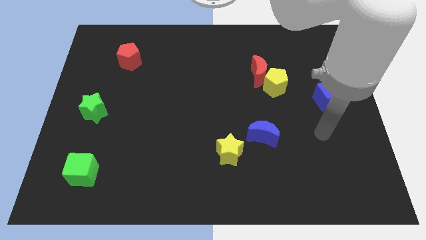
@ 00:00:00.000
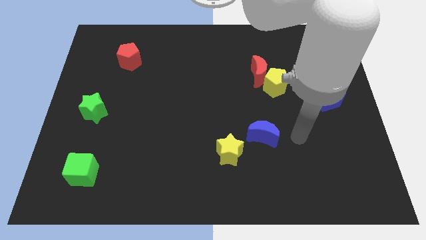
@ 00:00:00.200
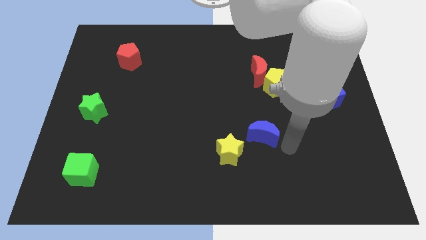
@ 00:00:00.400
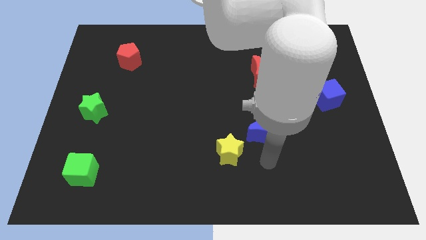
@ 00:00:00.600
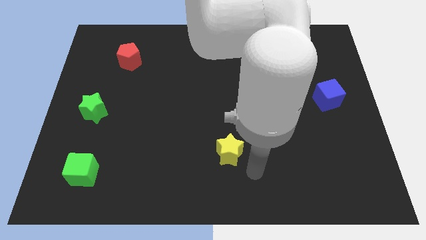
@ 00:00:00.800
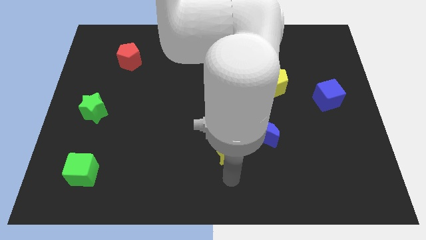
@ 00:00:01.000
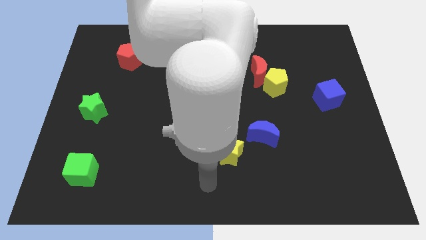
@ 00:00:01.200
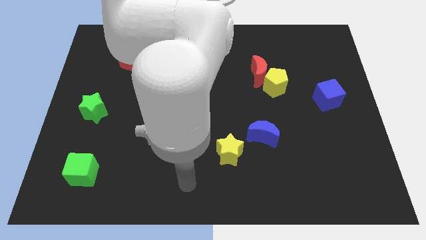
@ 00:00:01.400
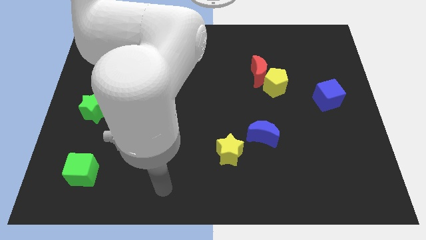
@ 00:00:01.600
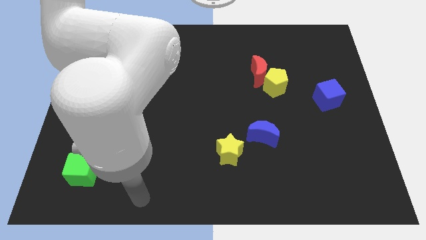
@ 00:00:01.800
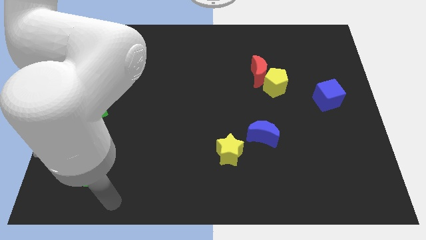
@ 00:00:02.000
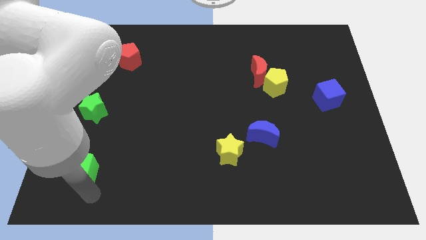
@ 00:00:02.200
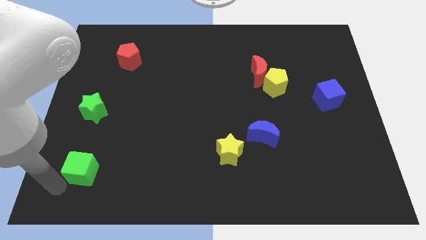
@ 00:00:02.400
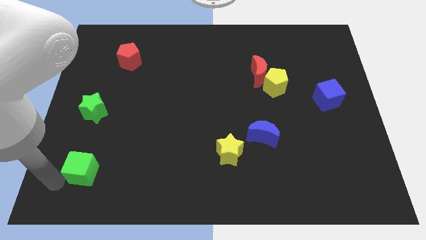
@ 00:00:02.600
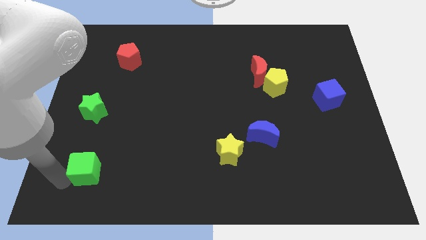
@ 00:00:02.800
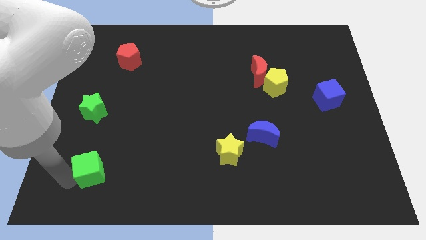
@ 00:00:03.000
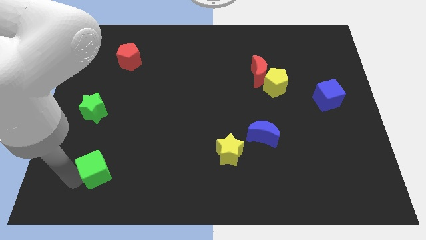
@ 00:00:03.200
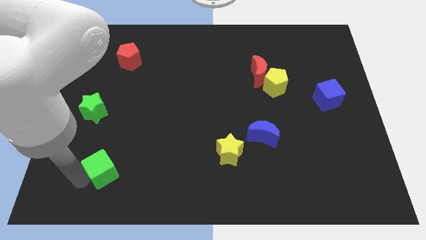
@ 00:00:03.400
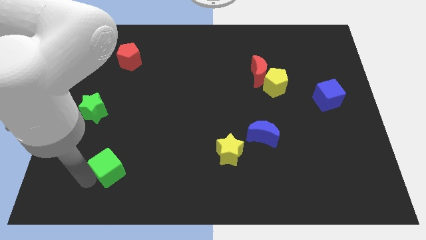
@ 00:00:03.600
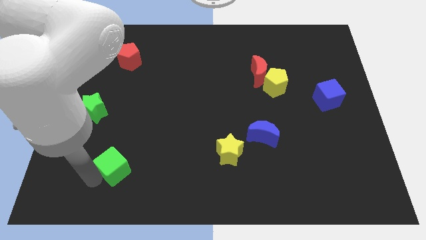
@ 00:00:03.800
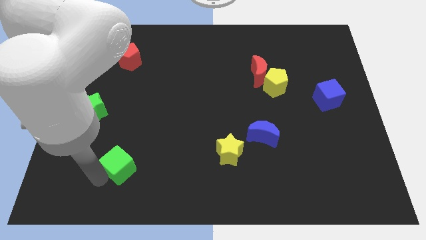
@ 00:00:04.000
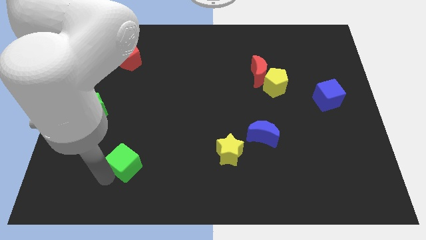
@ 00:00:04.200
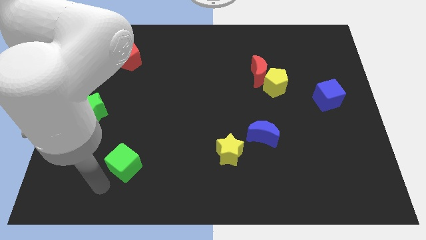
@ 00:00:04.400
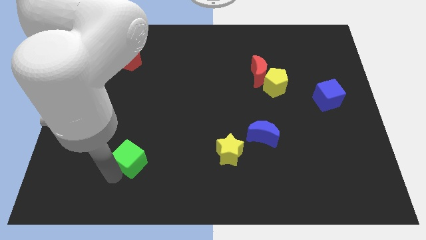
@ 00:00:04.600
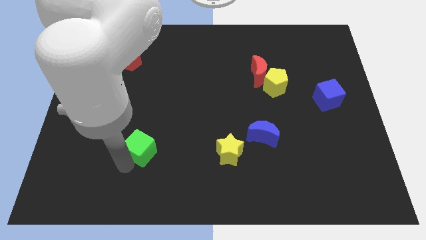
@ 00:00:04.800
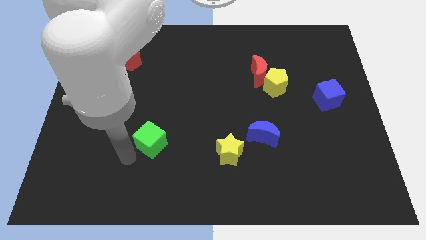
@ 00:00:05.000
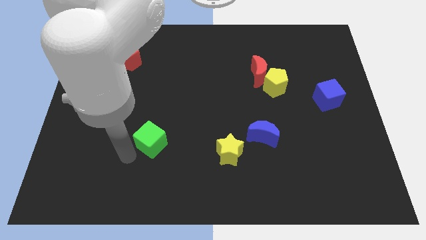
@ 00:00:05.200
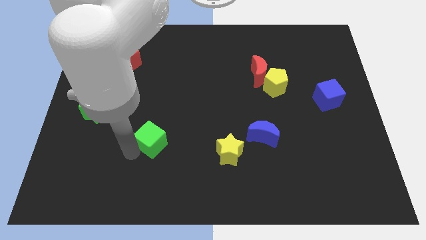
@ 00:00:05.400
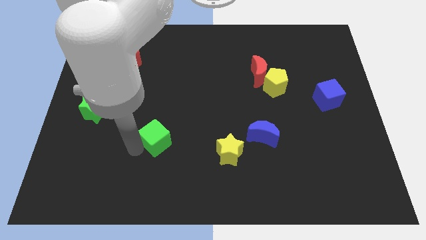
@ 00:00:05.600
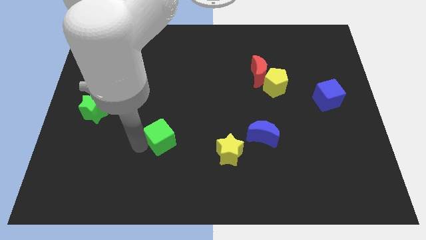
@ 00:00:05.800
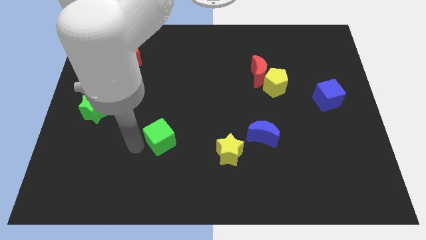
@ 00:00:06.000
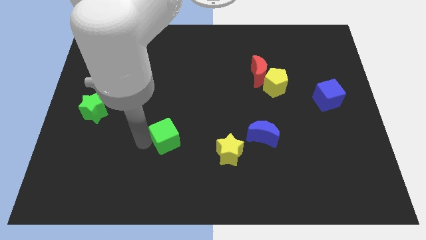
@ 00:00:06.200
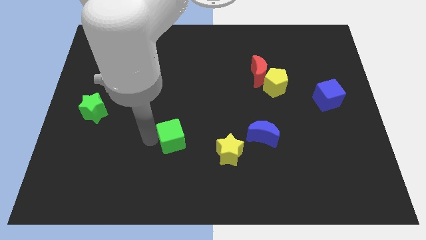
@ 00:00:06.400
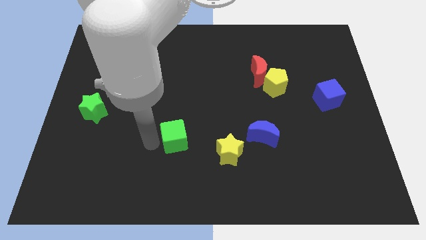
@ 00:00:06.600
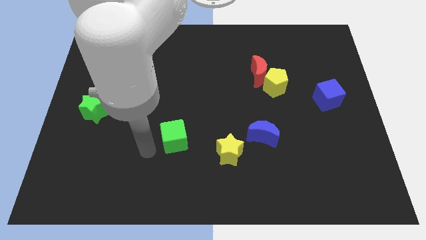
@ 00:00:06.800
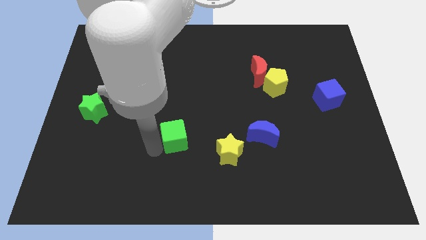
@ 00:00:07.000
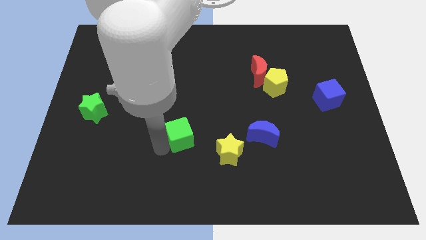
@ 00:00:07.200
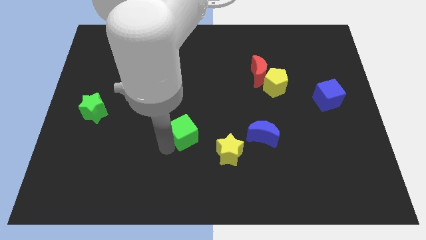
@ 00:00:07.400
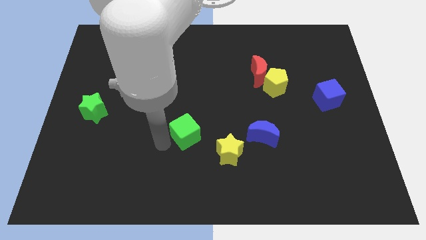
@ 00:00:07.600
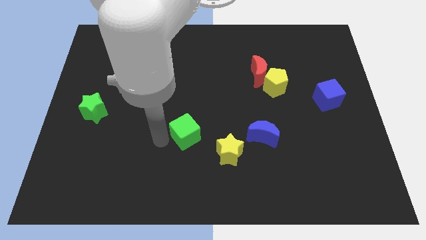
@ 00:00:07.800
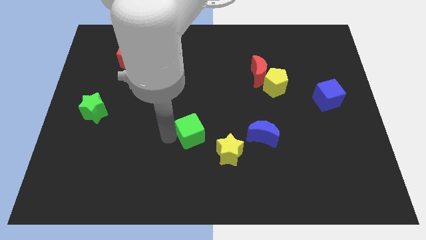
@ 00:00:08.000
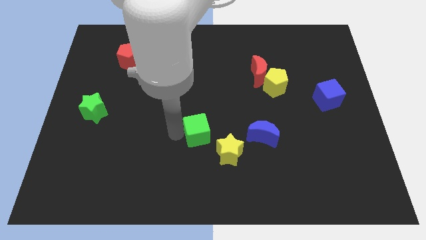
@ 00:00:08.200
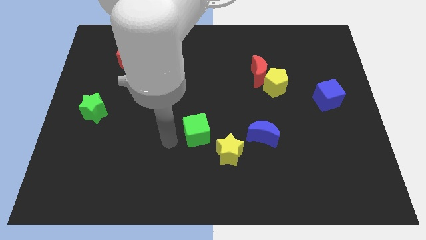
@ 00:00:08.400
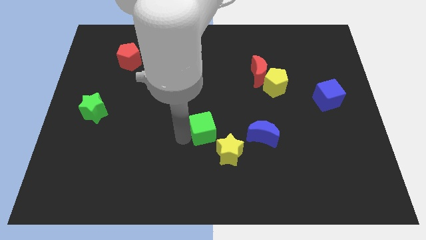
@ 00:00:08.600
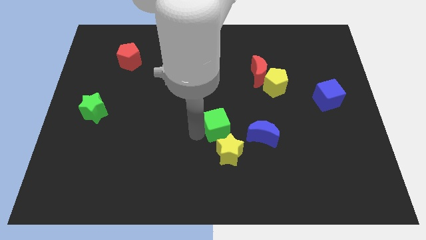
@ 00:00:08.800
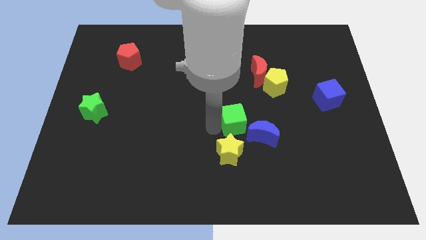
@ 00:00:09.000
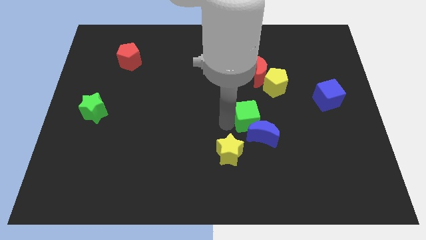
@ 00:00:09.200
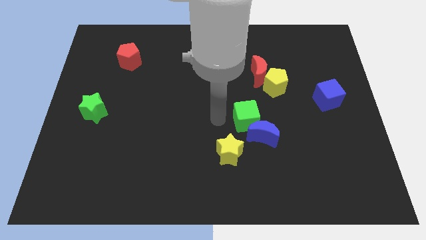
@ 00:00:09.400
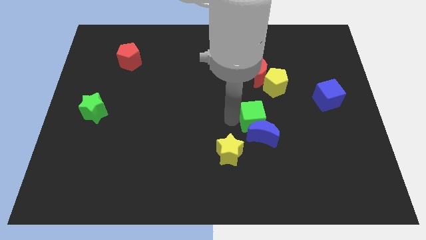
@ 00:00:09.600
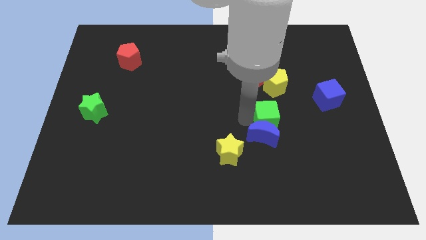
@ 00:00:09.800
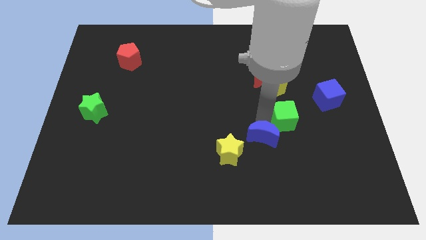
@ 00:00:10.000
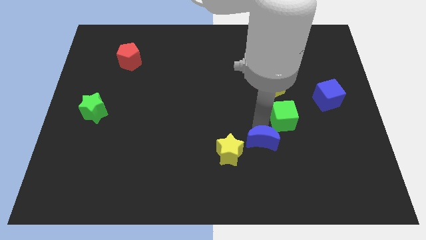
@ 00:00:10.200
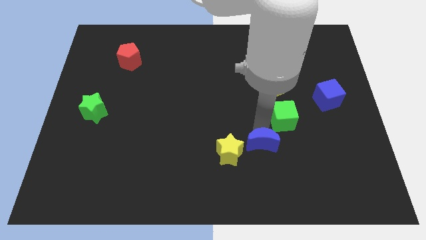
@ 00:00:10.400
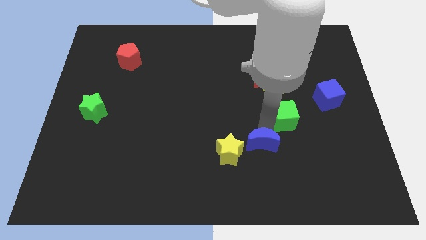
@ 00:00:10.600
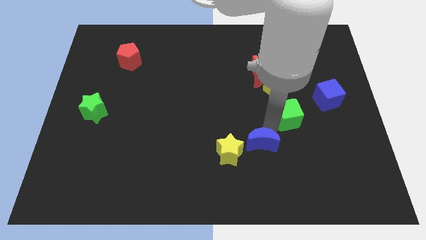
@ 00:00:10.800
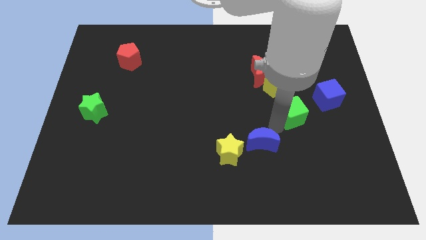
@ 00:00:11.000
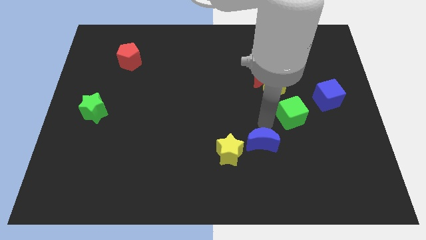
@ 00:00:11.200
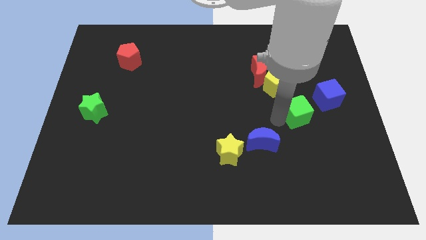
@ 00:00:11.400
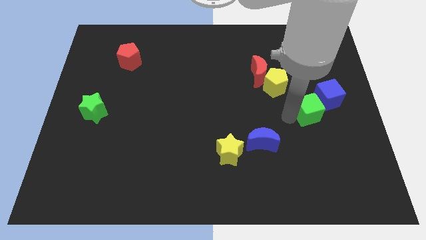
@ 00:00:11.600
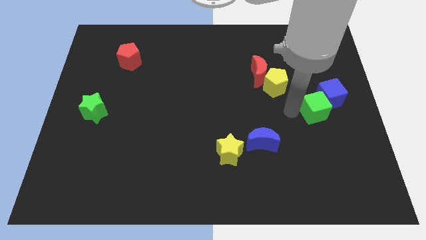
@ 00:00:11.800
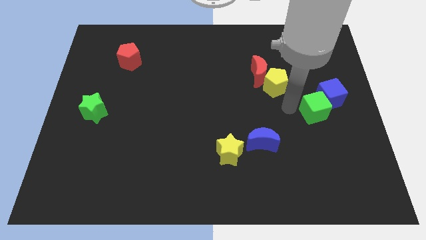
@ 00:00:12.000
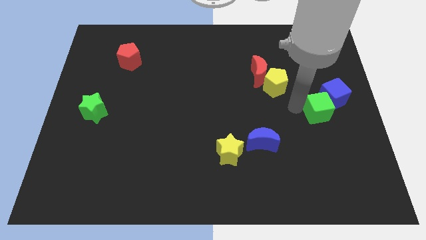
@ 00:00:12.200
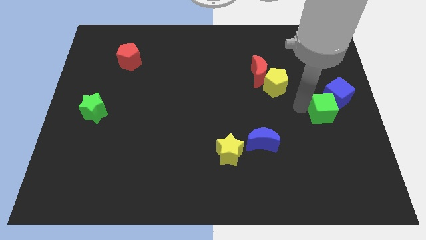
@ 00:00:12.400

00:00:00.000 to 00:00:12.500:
push the green cube to the right side of the board

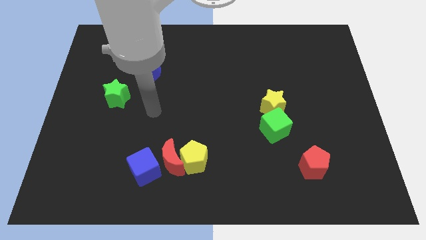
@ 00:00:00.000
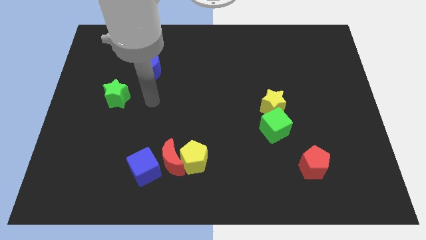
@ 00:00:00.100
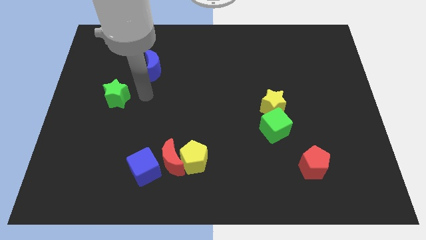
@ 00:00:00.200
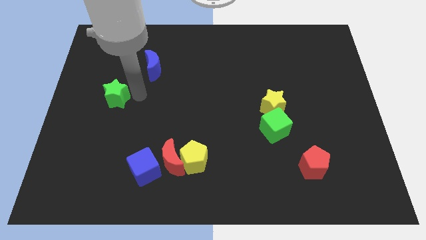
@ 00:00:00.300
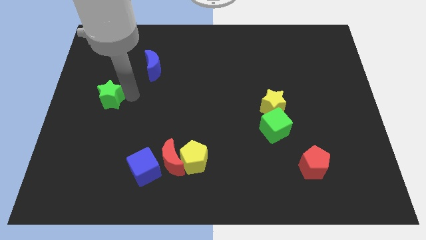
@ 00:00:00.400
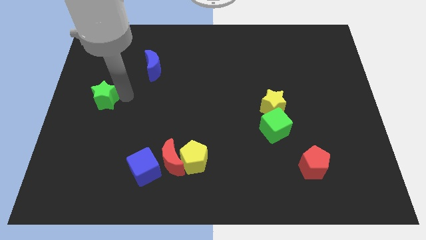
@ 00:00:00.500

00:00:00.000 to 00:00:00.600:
slide the green star to the left side

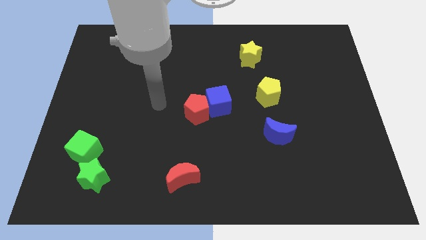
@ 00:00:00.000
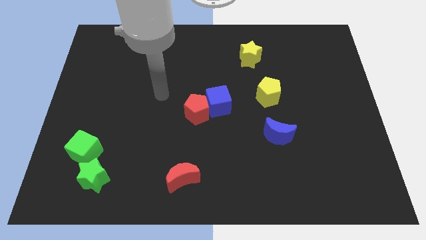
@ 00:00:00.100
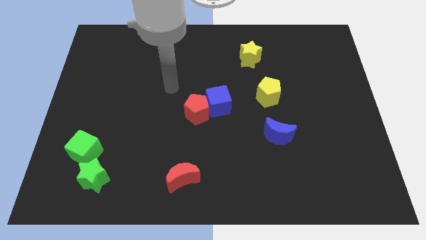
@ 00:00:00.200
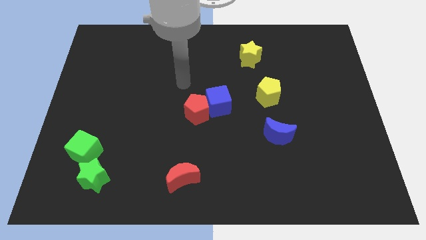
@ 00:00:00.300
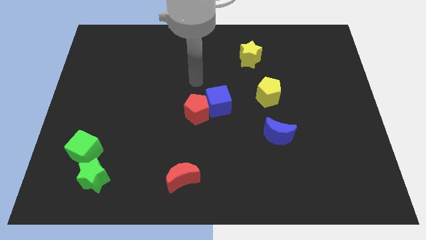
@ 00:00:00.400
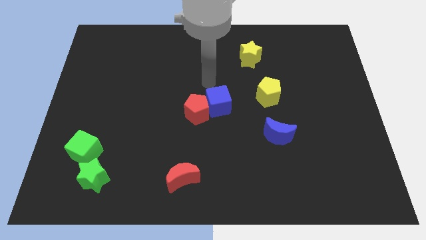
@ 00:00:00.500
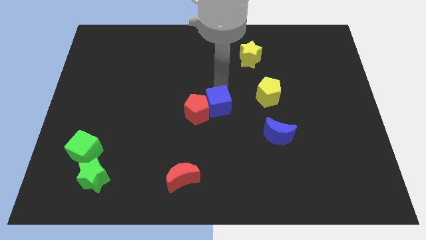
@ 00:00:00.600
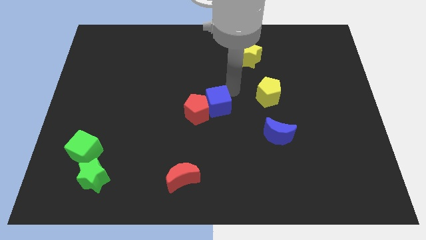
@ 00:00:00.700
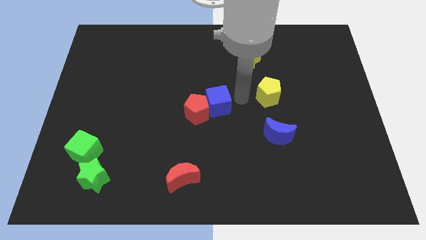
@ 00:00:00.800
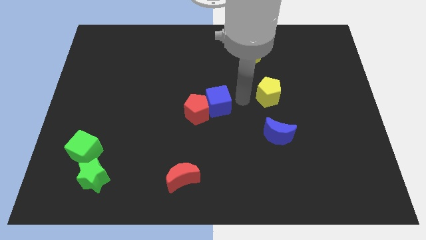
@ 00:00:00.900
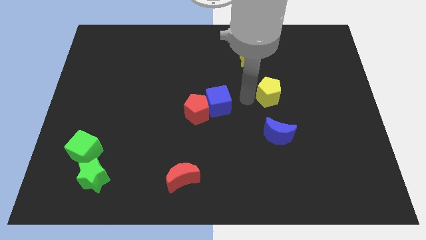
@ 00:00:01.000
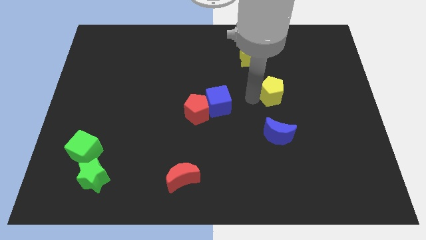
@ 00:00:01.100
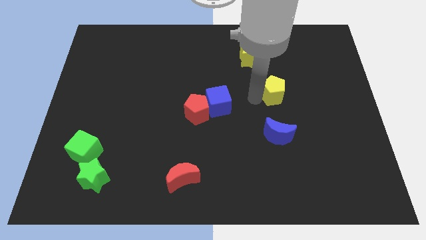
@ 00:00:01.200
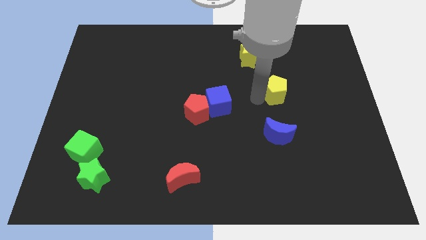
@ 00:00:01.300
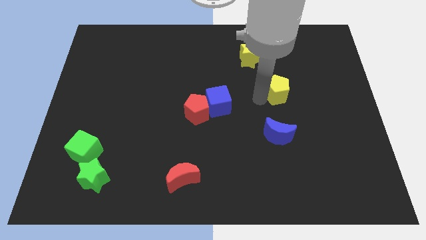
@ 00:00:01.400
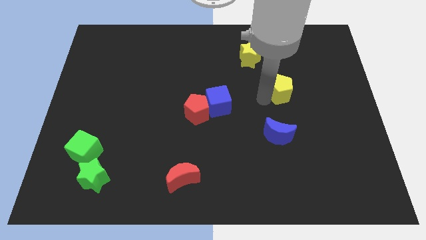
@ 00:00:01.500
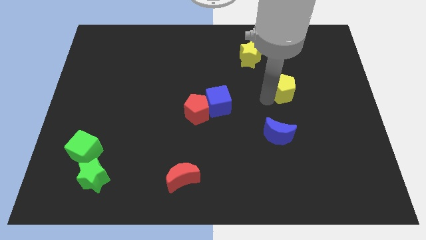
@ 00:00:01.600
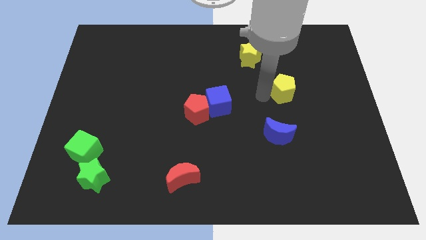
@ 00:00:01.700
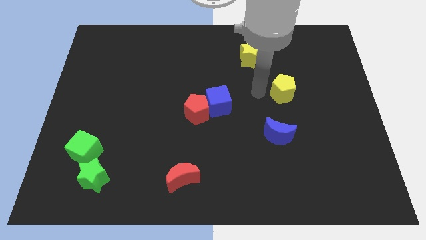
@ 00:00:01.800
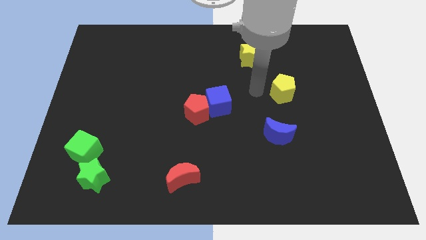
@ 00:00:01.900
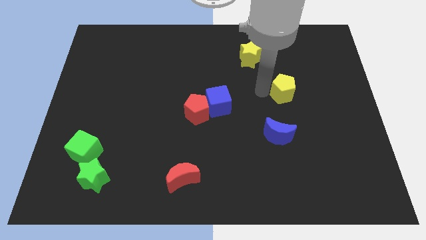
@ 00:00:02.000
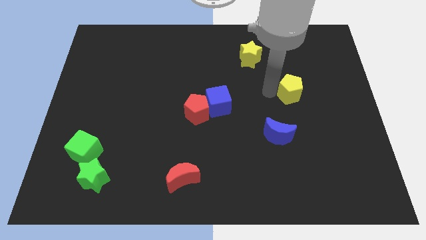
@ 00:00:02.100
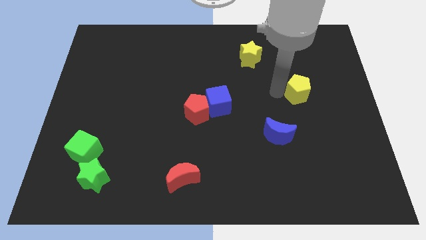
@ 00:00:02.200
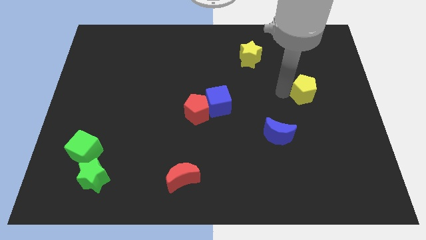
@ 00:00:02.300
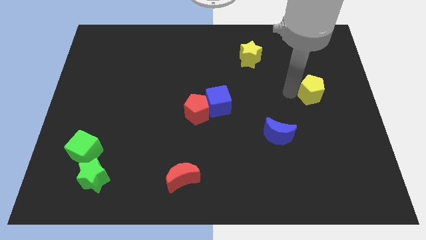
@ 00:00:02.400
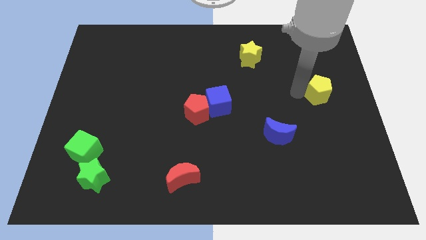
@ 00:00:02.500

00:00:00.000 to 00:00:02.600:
push the yellow pentagon to the right side
